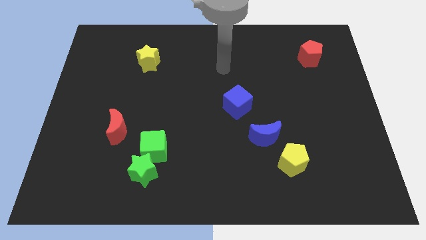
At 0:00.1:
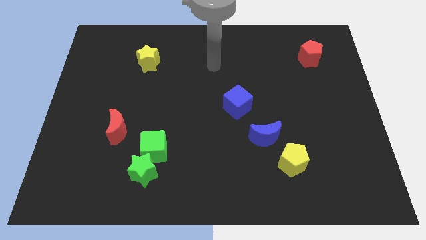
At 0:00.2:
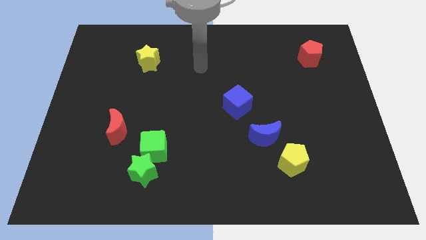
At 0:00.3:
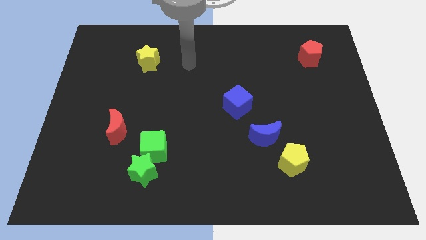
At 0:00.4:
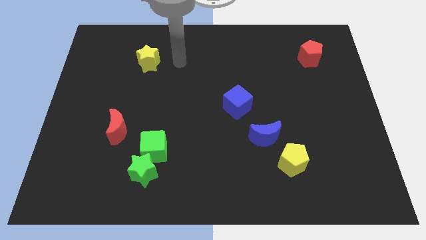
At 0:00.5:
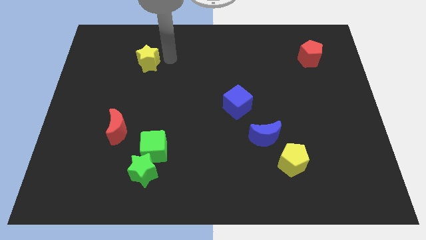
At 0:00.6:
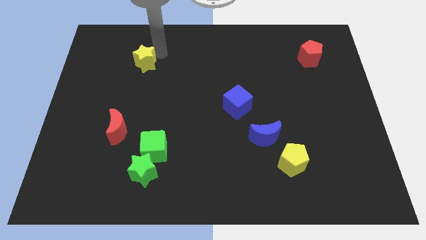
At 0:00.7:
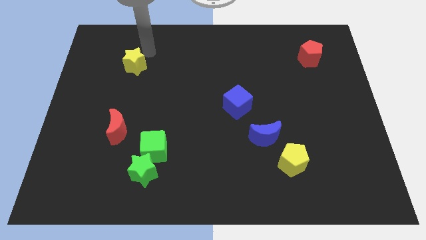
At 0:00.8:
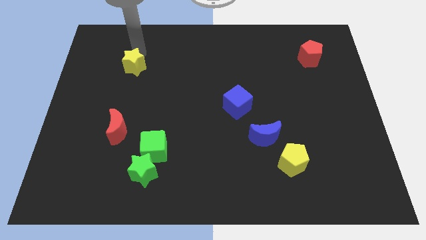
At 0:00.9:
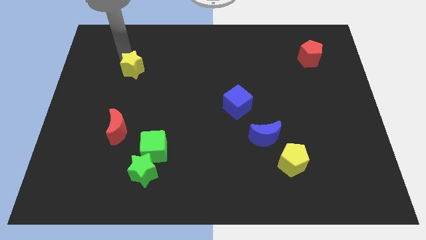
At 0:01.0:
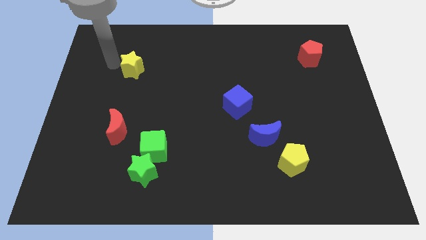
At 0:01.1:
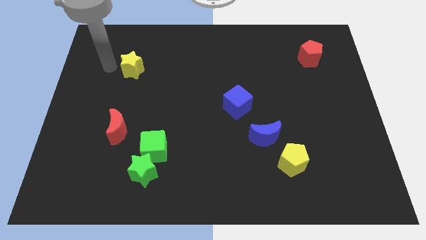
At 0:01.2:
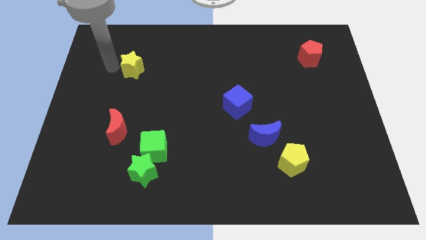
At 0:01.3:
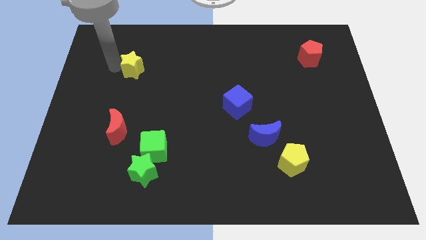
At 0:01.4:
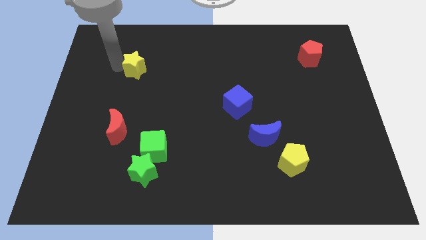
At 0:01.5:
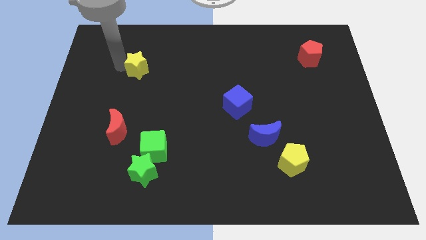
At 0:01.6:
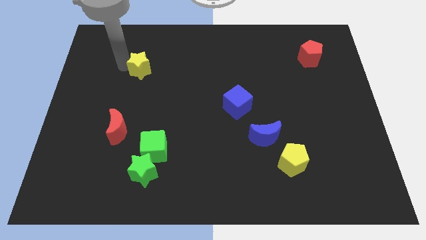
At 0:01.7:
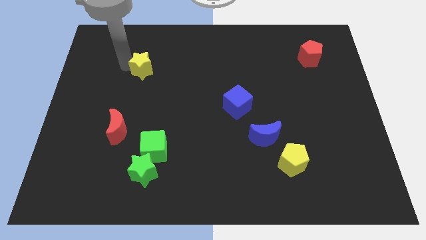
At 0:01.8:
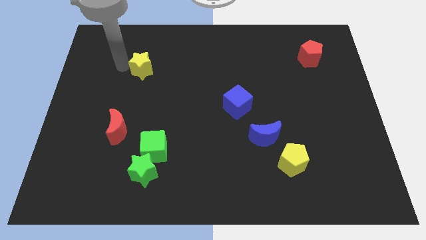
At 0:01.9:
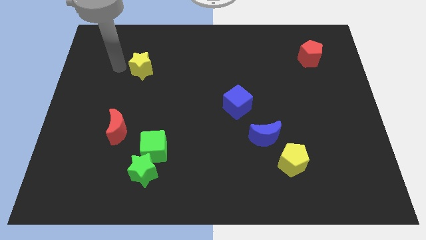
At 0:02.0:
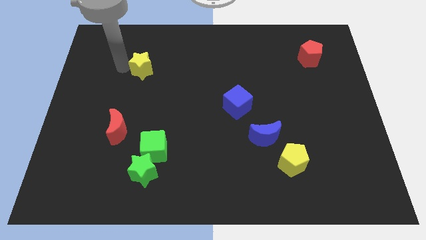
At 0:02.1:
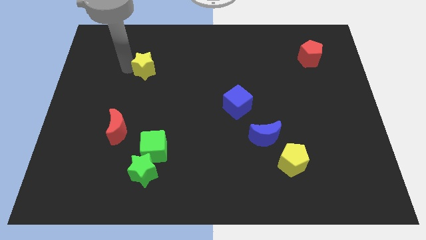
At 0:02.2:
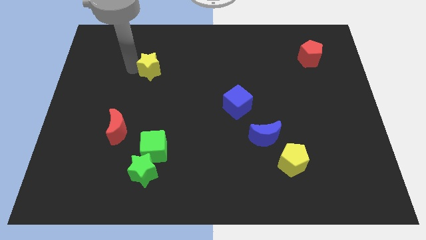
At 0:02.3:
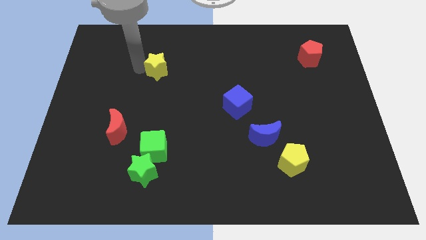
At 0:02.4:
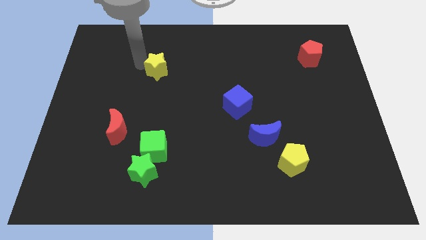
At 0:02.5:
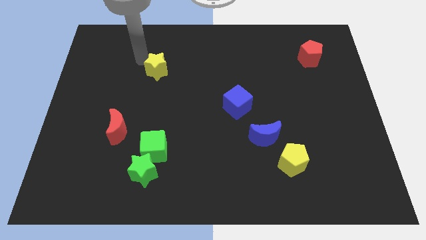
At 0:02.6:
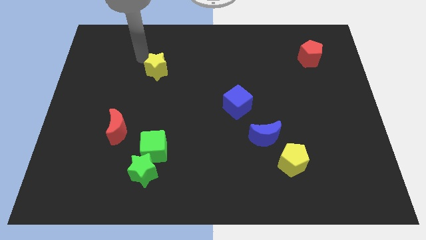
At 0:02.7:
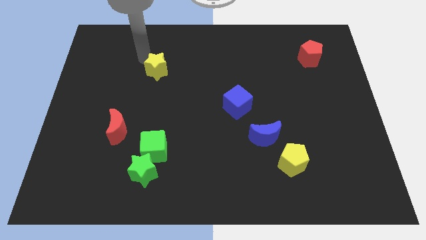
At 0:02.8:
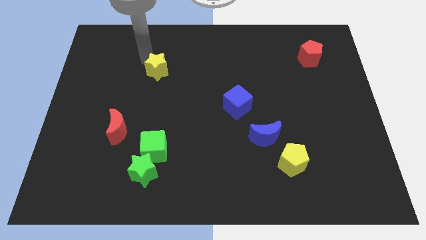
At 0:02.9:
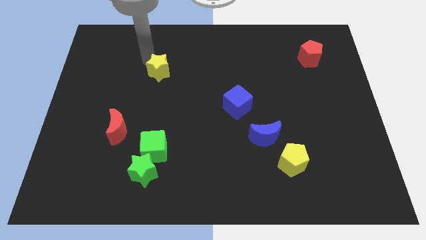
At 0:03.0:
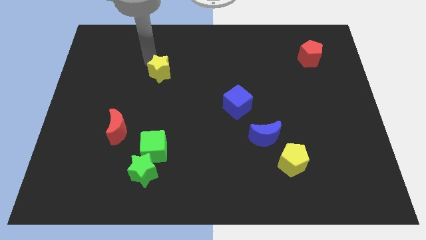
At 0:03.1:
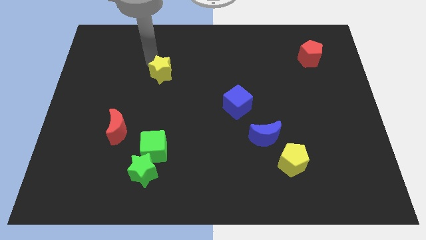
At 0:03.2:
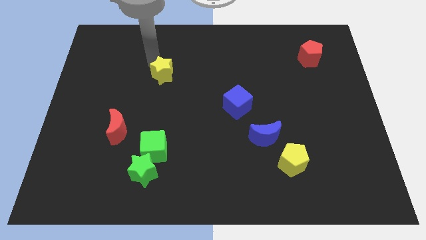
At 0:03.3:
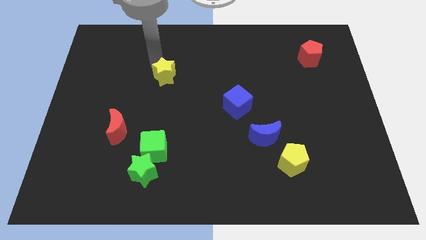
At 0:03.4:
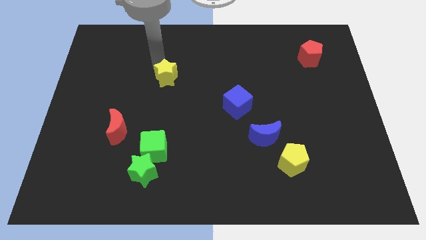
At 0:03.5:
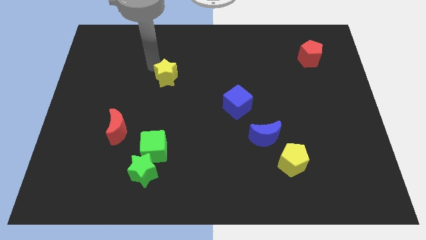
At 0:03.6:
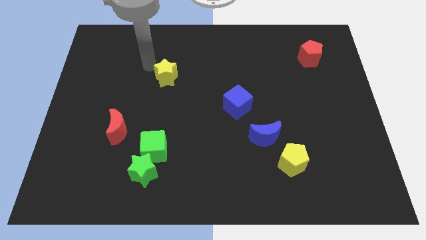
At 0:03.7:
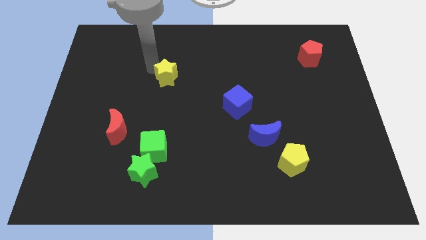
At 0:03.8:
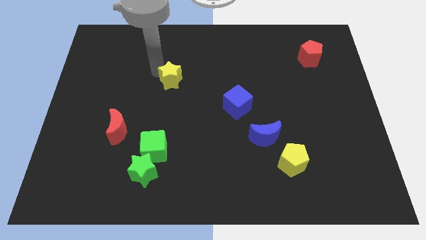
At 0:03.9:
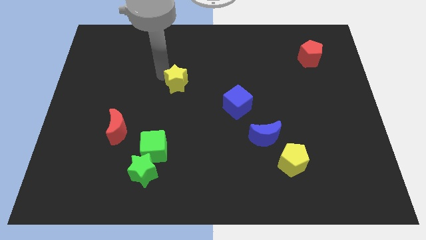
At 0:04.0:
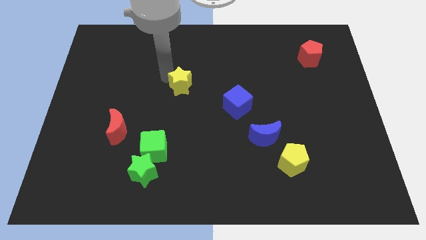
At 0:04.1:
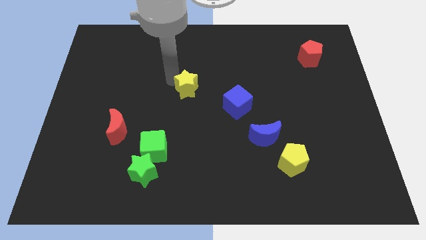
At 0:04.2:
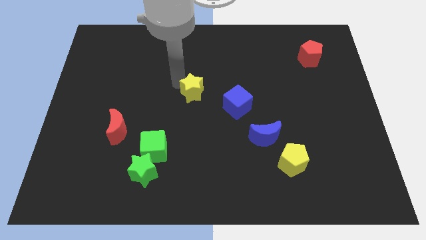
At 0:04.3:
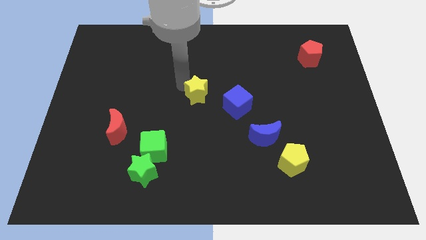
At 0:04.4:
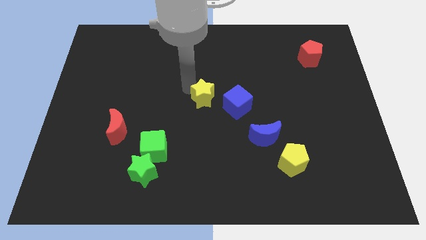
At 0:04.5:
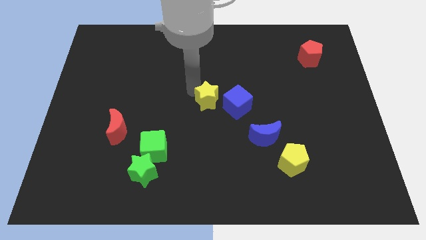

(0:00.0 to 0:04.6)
push the yellow star down and right

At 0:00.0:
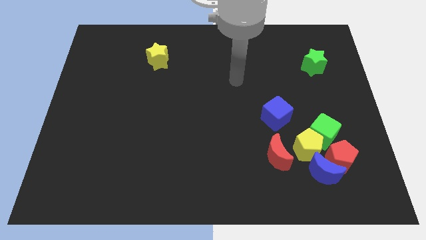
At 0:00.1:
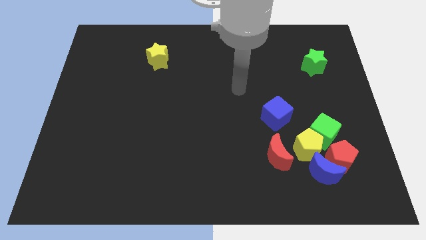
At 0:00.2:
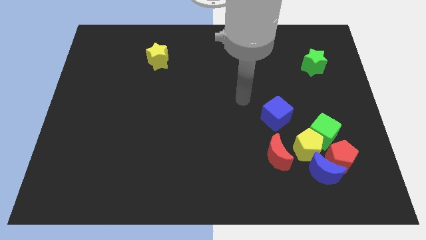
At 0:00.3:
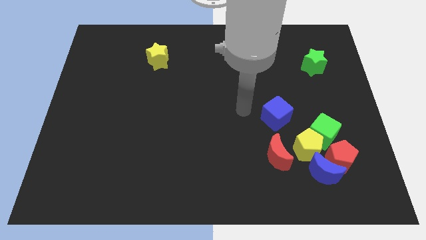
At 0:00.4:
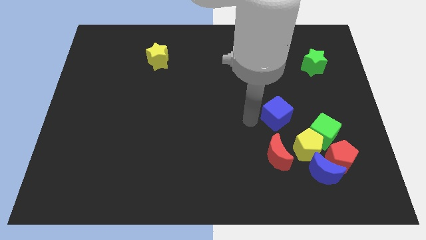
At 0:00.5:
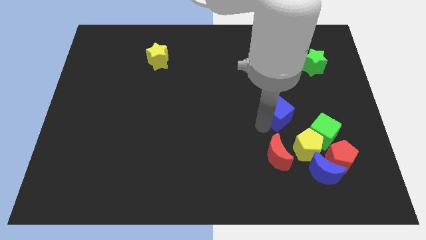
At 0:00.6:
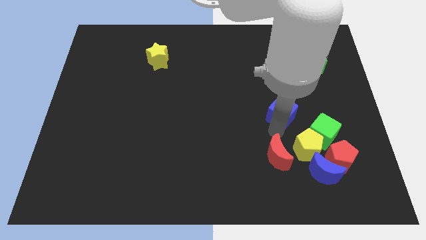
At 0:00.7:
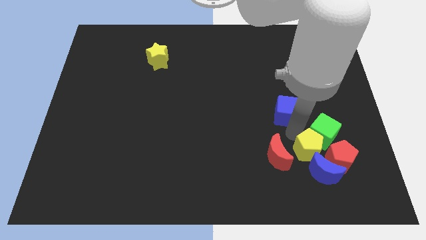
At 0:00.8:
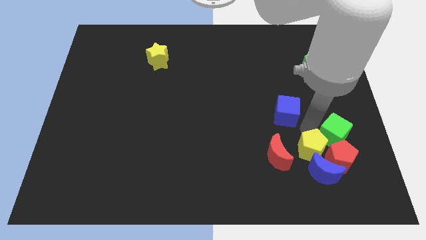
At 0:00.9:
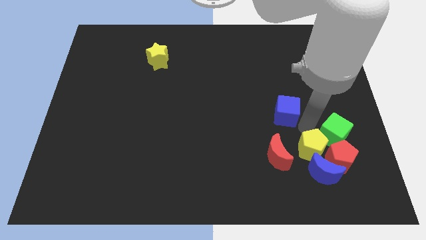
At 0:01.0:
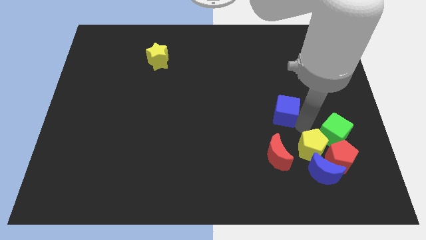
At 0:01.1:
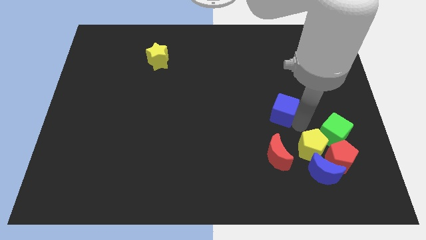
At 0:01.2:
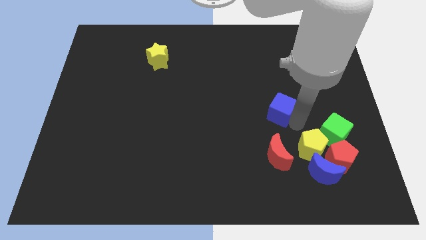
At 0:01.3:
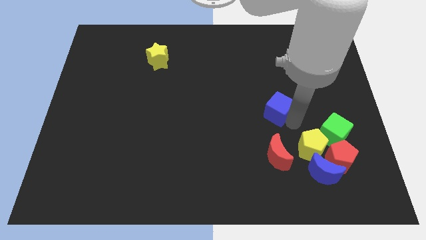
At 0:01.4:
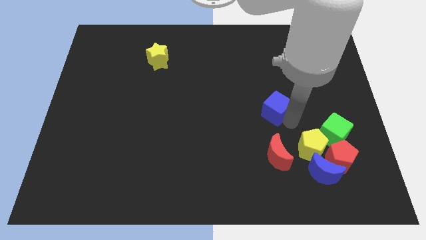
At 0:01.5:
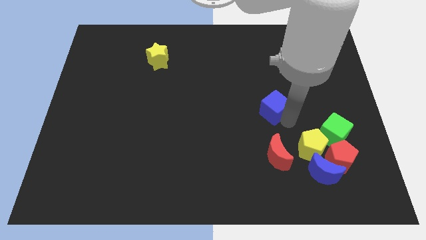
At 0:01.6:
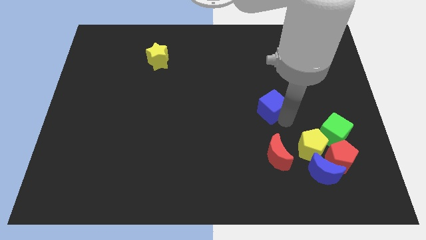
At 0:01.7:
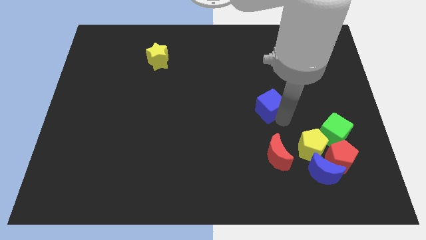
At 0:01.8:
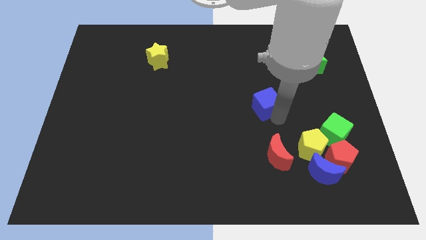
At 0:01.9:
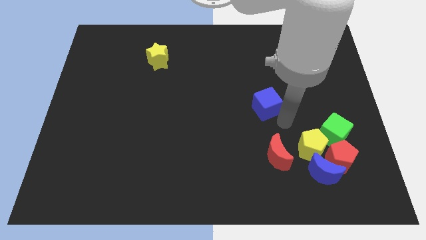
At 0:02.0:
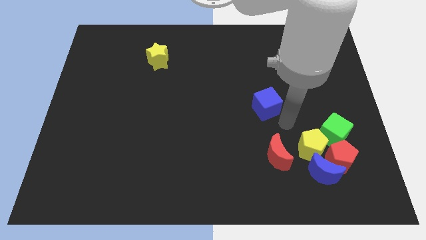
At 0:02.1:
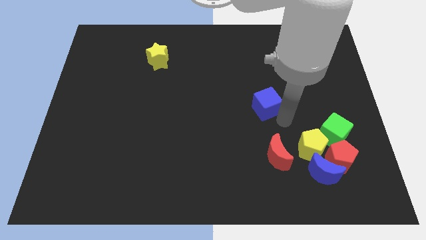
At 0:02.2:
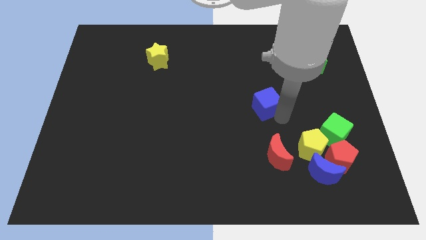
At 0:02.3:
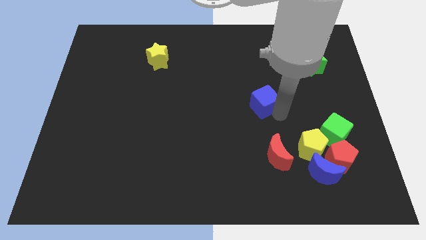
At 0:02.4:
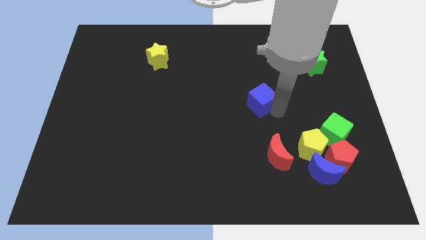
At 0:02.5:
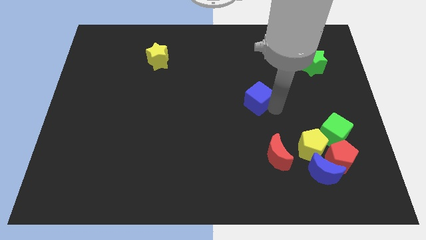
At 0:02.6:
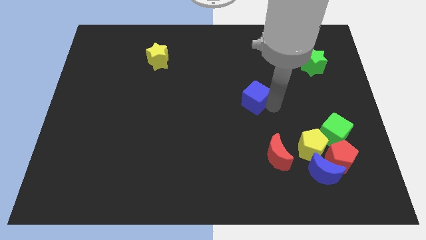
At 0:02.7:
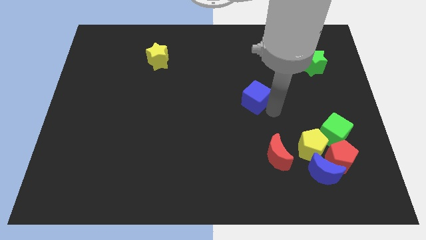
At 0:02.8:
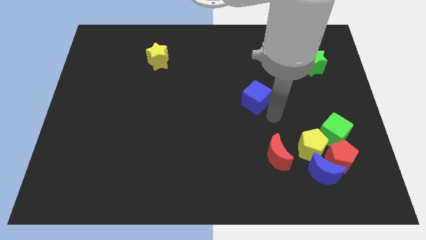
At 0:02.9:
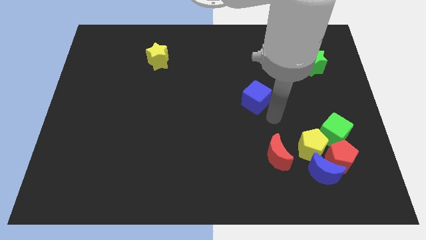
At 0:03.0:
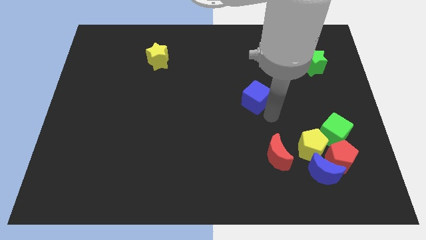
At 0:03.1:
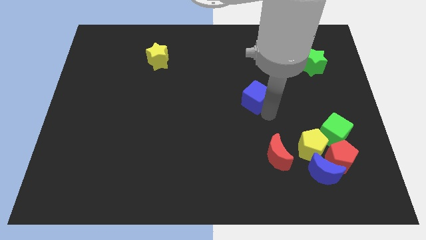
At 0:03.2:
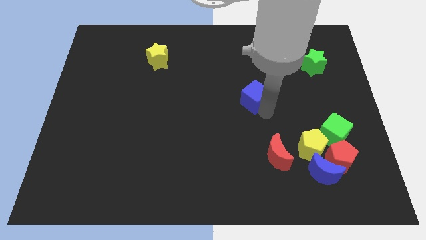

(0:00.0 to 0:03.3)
slide the blue cube a bit upwards and to the left diagonally

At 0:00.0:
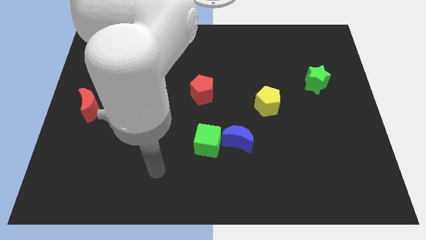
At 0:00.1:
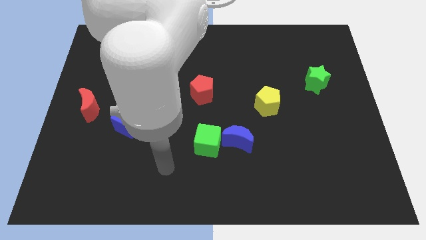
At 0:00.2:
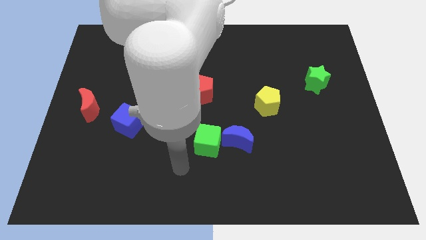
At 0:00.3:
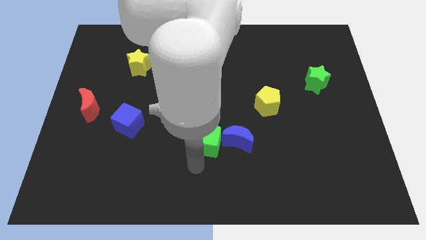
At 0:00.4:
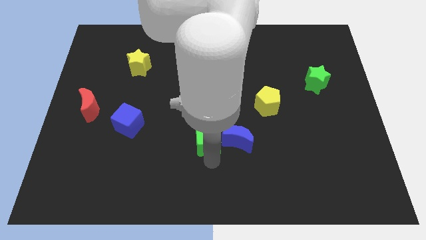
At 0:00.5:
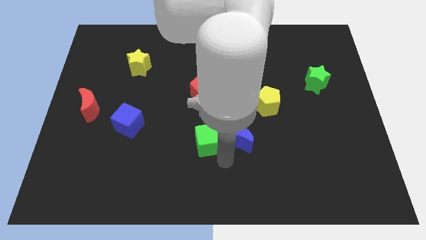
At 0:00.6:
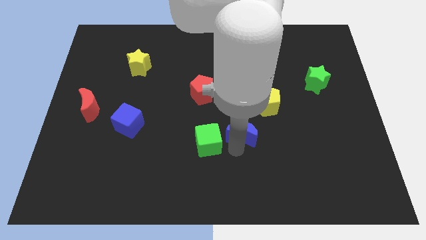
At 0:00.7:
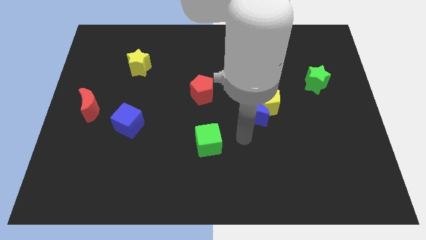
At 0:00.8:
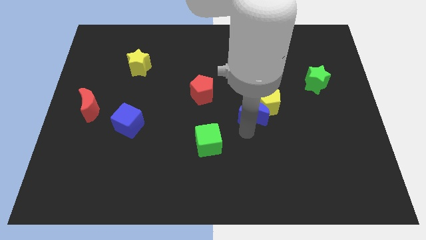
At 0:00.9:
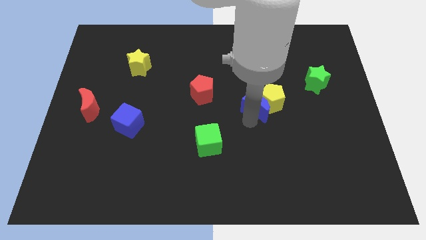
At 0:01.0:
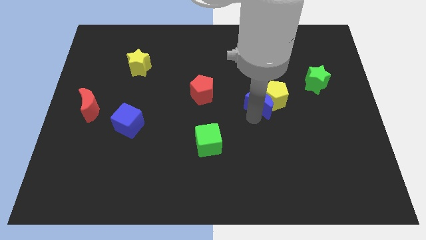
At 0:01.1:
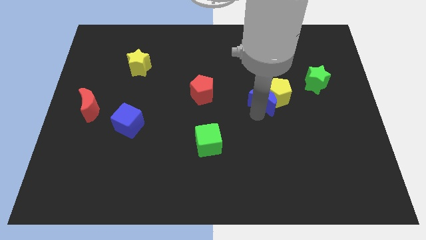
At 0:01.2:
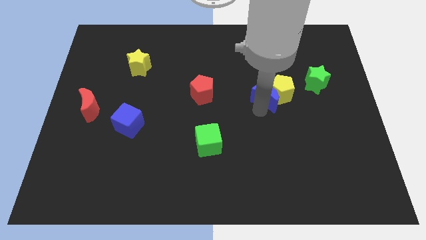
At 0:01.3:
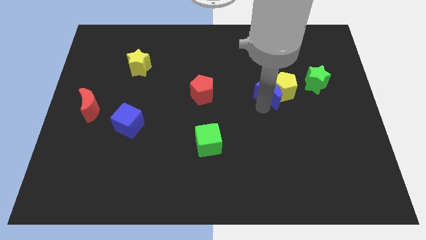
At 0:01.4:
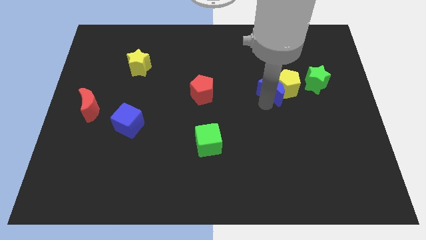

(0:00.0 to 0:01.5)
slightly push the yellow pentagon upwards and then right
